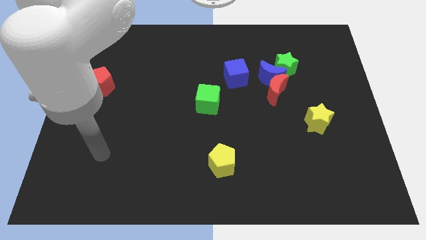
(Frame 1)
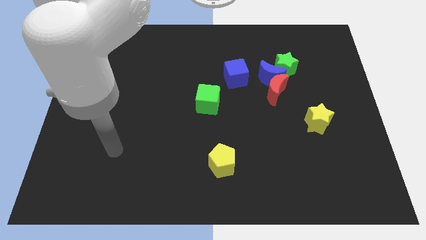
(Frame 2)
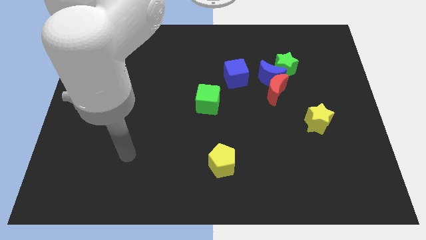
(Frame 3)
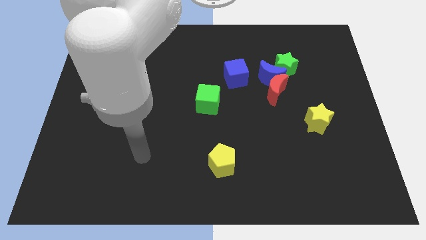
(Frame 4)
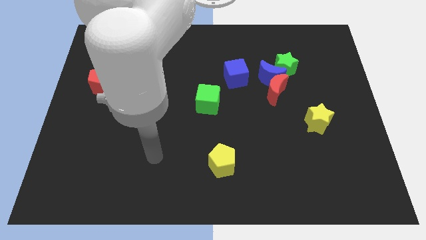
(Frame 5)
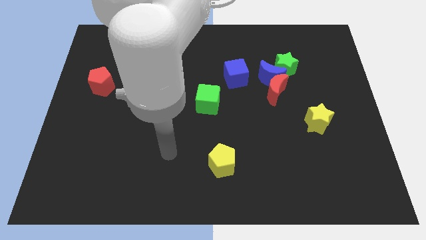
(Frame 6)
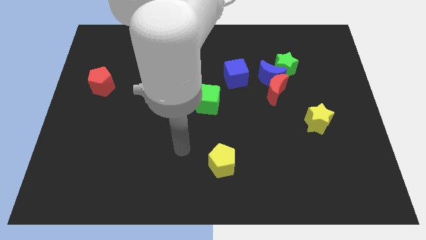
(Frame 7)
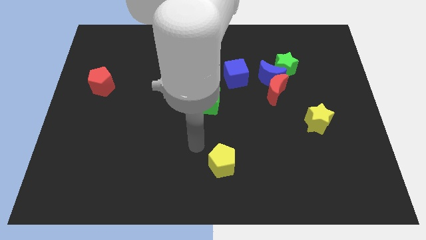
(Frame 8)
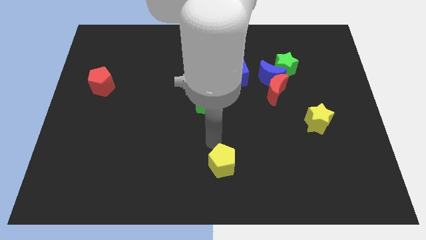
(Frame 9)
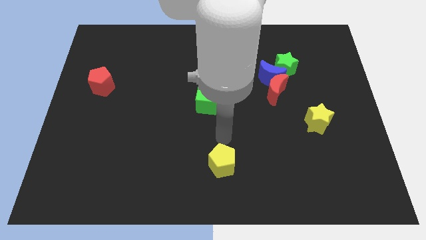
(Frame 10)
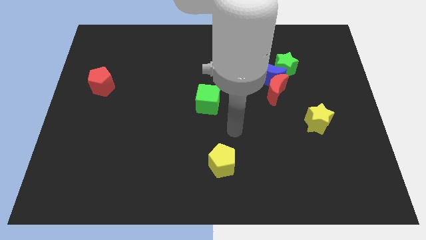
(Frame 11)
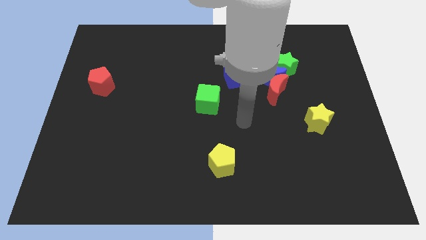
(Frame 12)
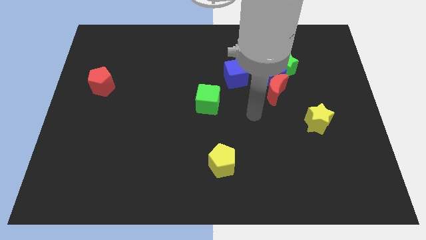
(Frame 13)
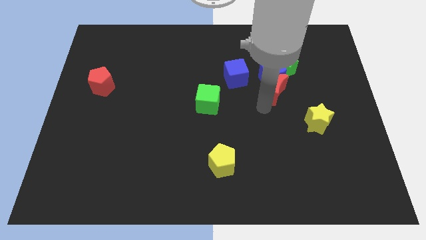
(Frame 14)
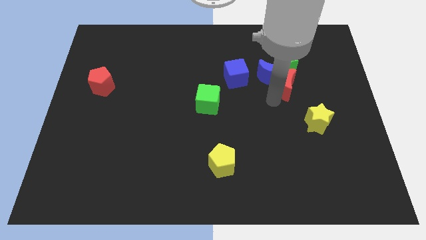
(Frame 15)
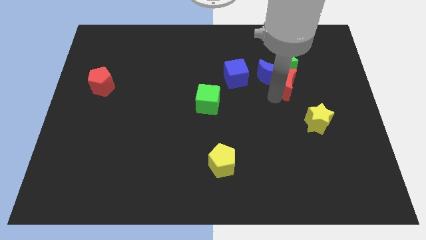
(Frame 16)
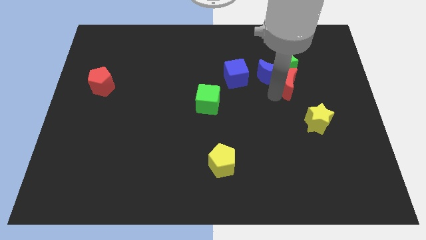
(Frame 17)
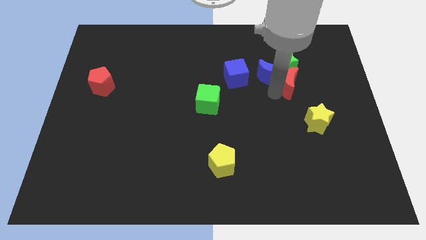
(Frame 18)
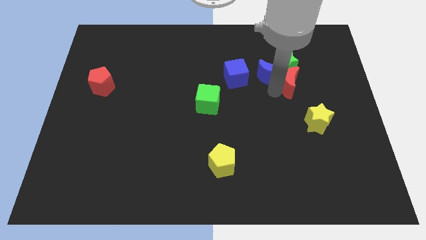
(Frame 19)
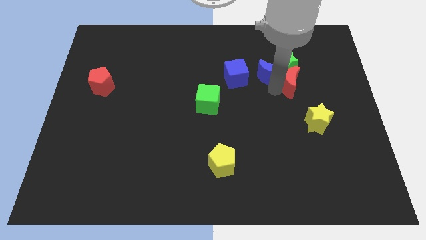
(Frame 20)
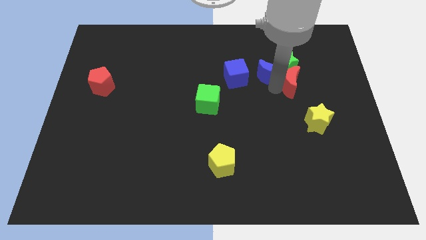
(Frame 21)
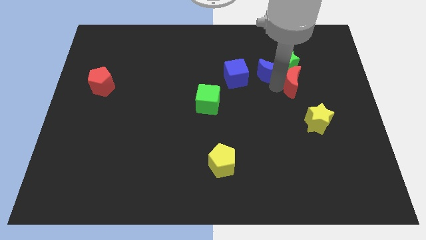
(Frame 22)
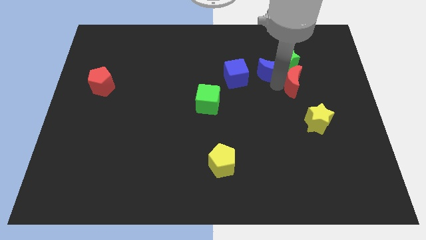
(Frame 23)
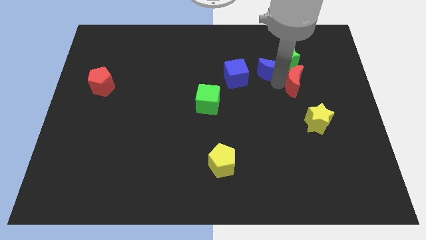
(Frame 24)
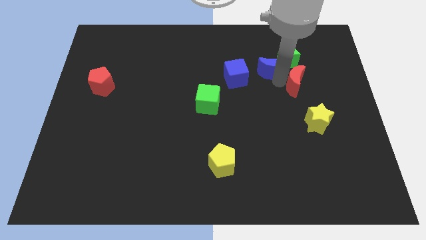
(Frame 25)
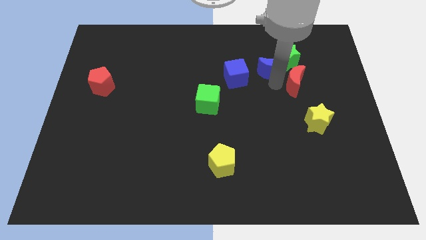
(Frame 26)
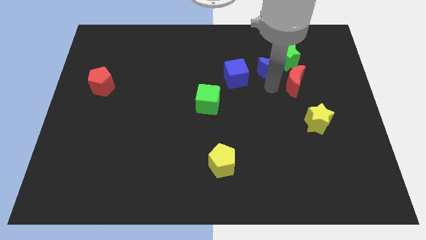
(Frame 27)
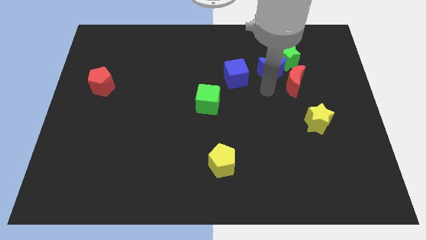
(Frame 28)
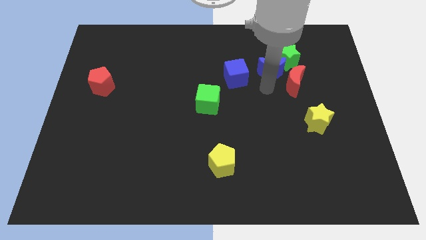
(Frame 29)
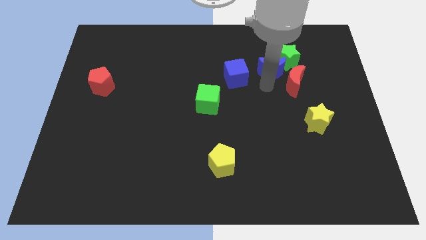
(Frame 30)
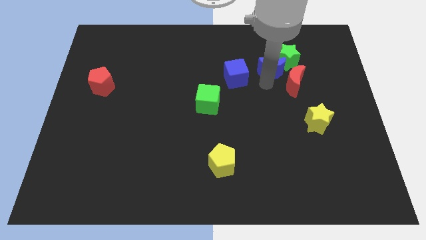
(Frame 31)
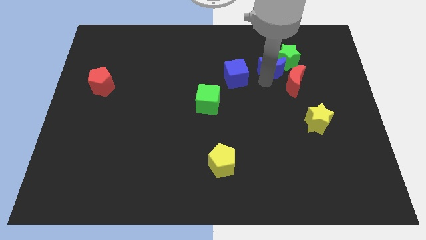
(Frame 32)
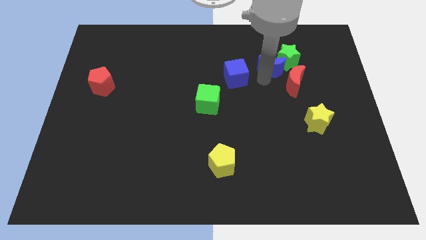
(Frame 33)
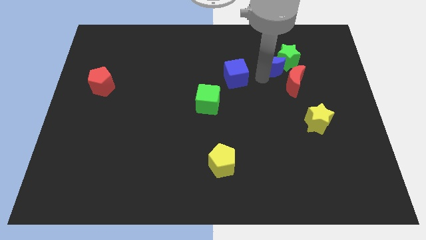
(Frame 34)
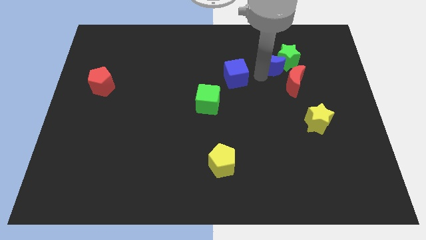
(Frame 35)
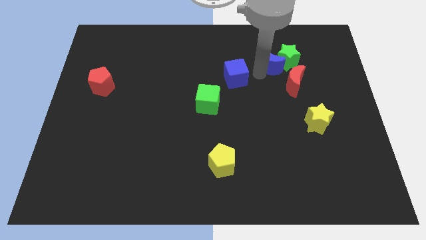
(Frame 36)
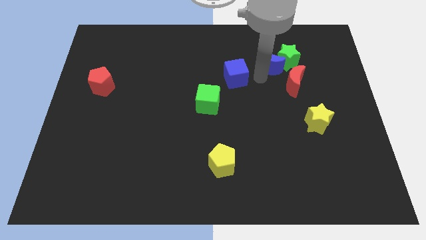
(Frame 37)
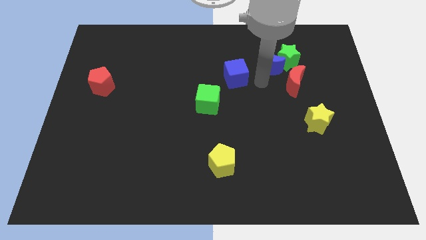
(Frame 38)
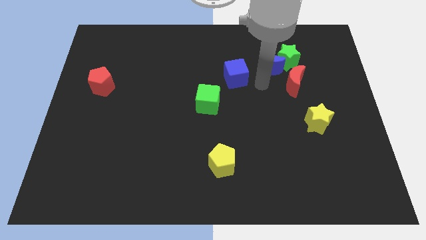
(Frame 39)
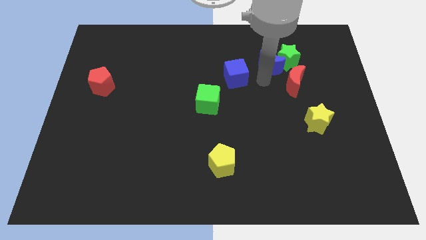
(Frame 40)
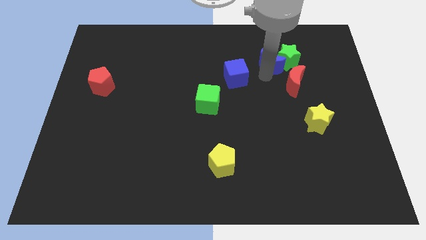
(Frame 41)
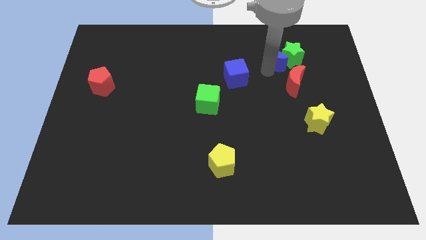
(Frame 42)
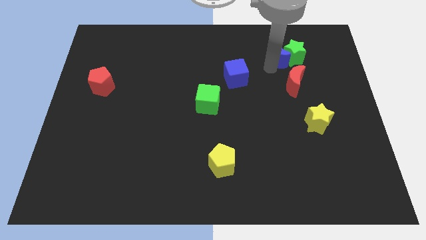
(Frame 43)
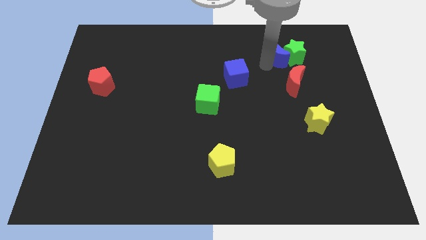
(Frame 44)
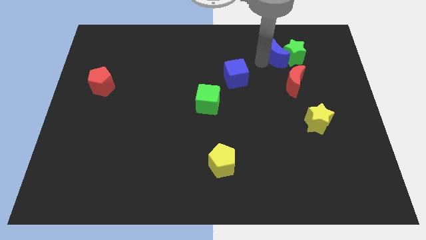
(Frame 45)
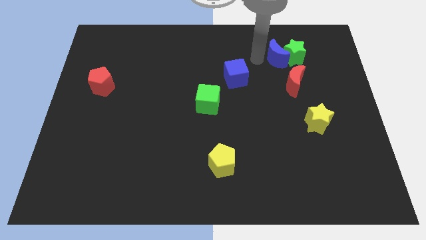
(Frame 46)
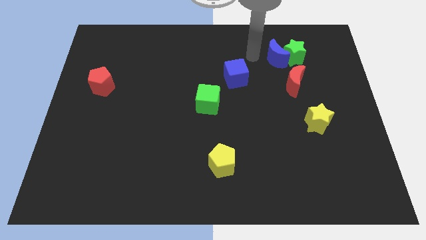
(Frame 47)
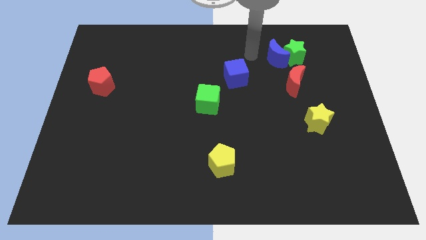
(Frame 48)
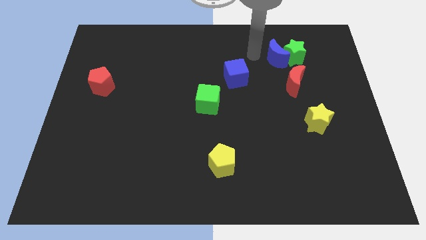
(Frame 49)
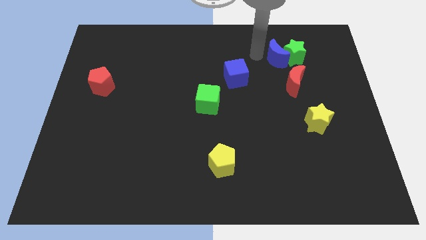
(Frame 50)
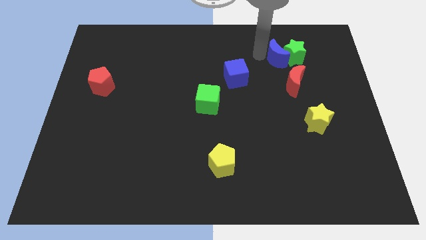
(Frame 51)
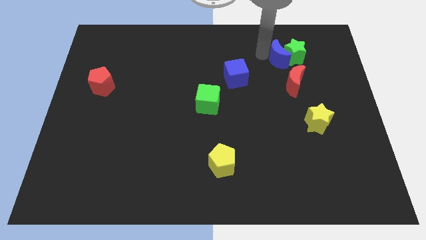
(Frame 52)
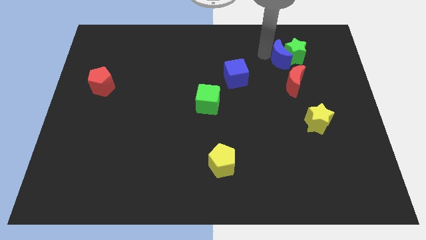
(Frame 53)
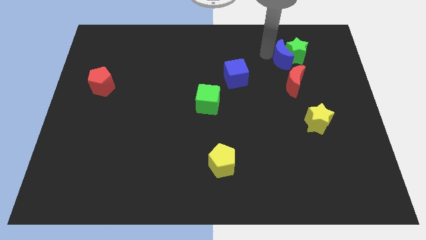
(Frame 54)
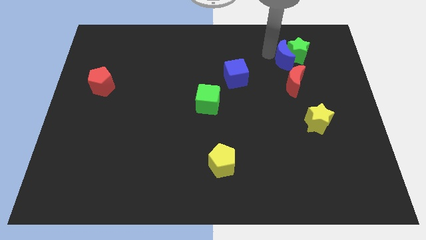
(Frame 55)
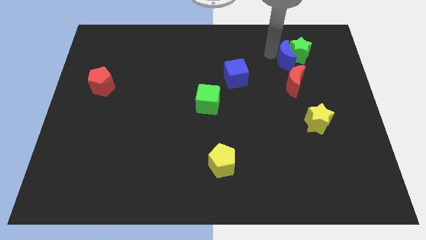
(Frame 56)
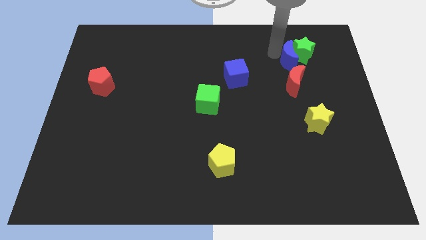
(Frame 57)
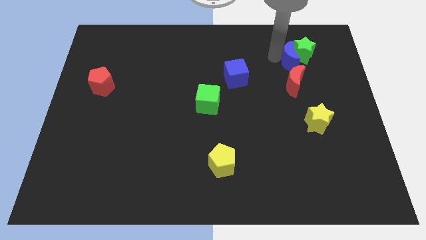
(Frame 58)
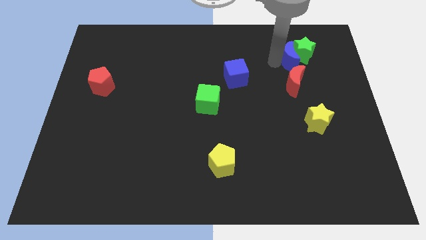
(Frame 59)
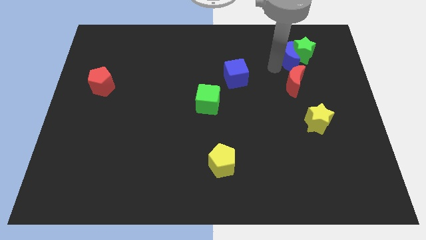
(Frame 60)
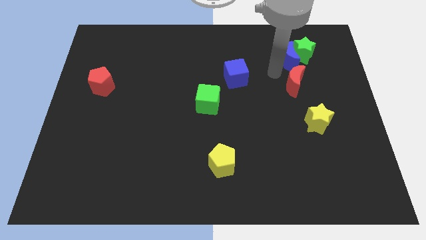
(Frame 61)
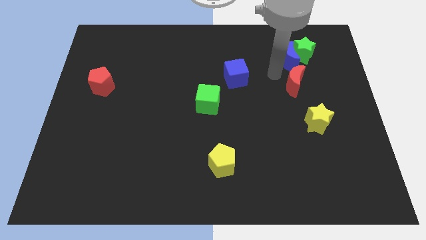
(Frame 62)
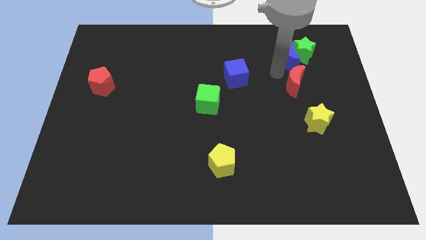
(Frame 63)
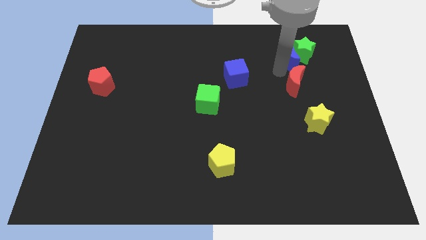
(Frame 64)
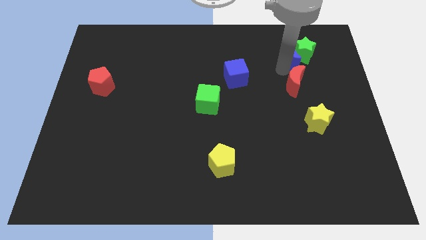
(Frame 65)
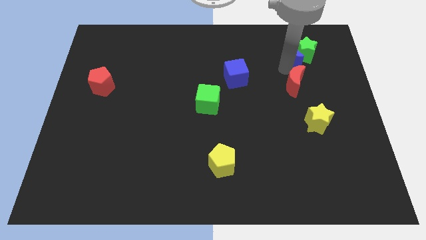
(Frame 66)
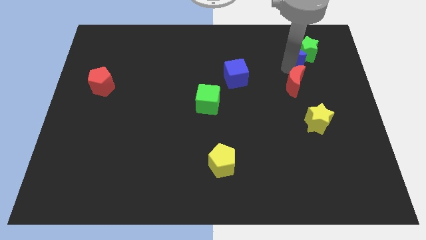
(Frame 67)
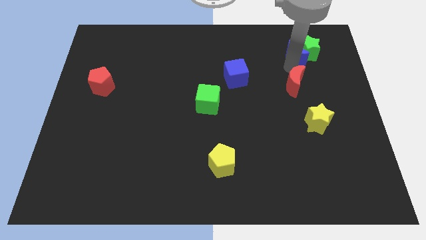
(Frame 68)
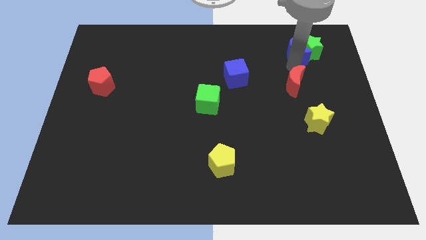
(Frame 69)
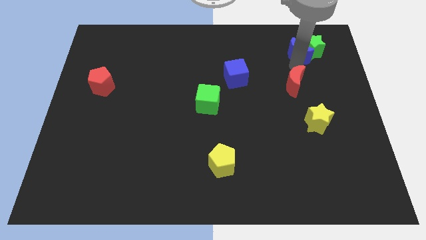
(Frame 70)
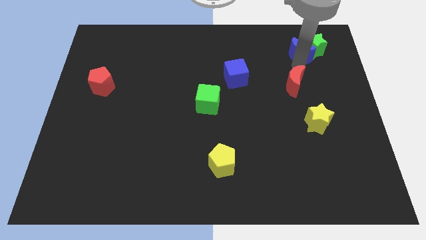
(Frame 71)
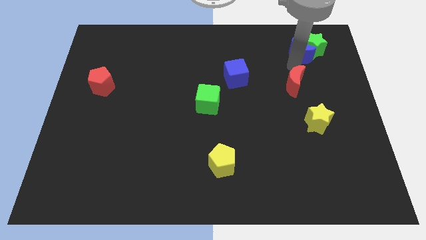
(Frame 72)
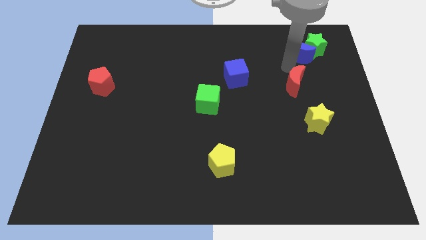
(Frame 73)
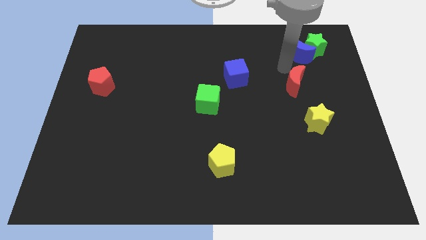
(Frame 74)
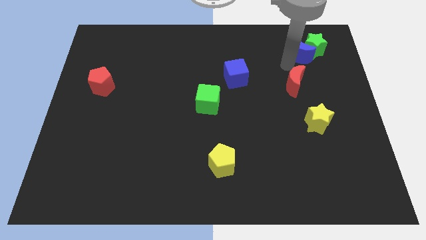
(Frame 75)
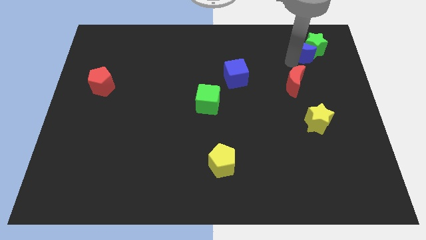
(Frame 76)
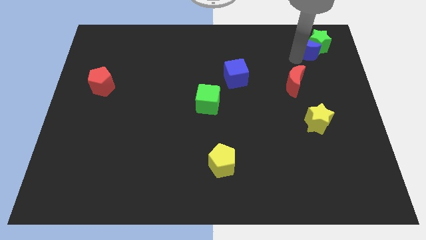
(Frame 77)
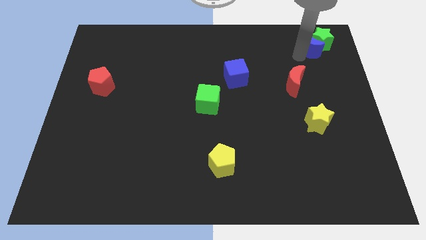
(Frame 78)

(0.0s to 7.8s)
separate the blue moon from the clump

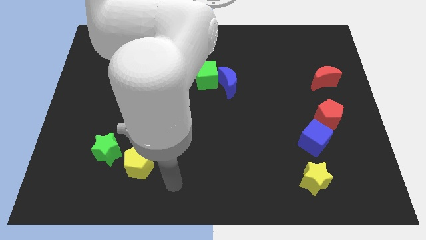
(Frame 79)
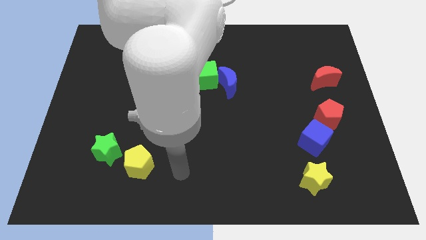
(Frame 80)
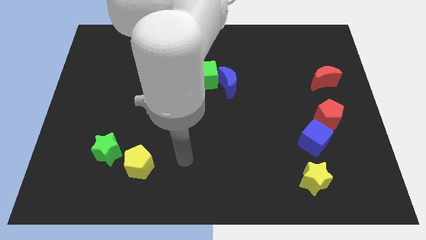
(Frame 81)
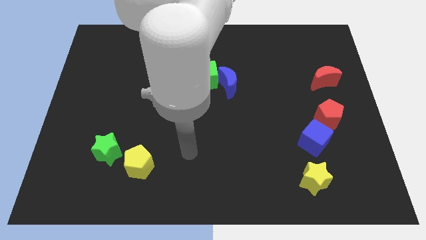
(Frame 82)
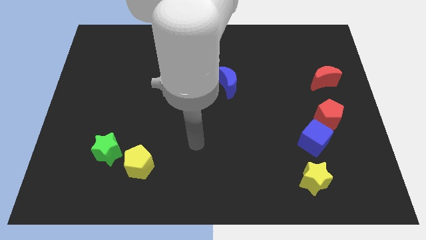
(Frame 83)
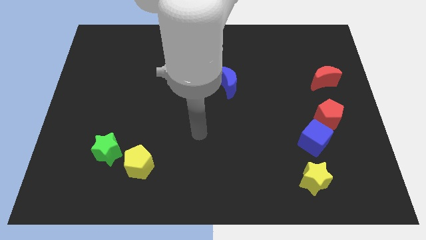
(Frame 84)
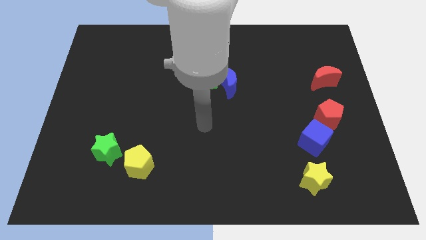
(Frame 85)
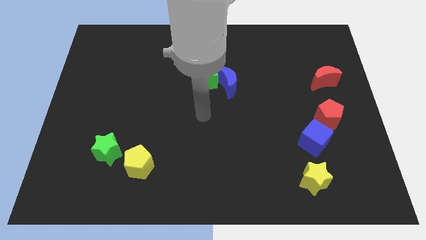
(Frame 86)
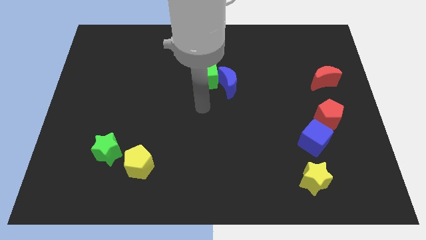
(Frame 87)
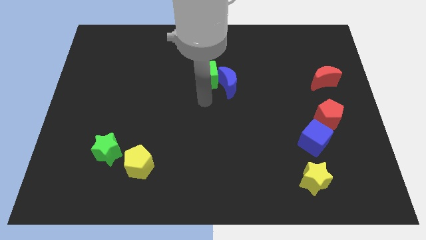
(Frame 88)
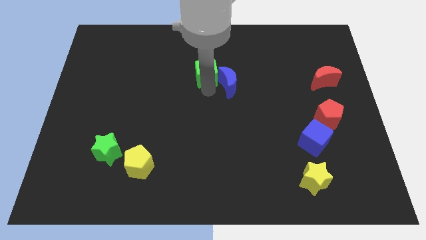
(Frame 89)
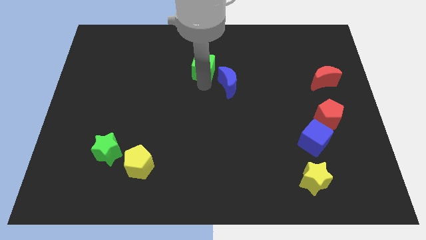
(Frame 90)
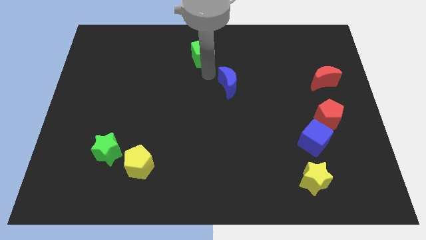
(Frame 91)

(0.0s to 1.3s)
move the blue moon away from the green cube

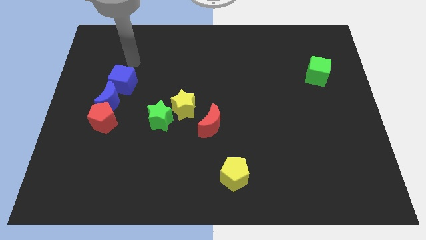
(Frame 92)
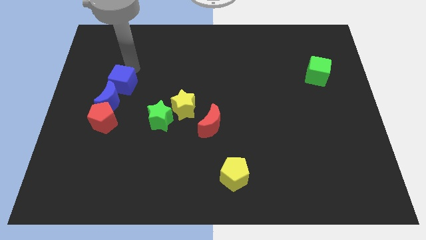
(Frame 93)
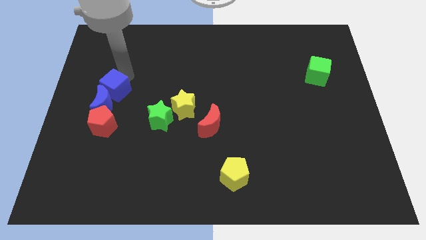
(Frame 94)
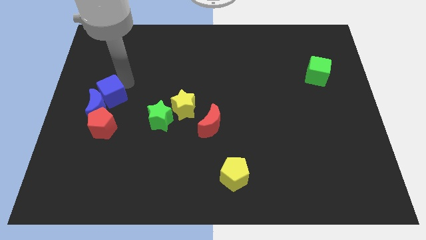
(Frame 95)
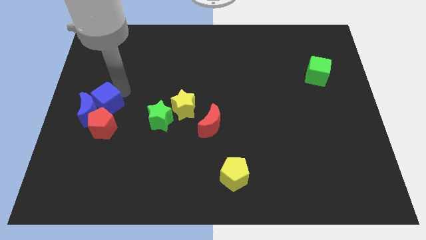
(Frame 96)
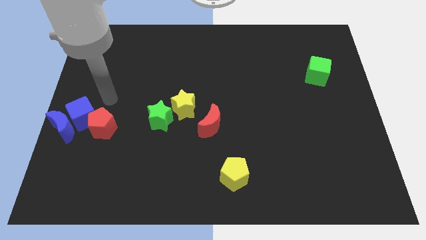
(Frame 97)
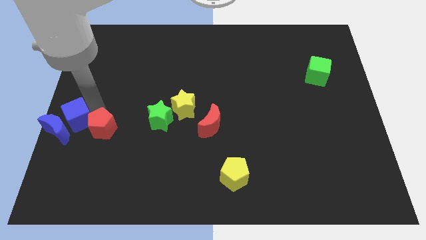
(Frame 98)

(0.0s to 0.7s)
separate the red pentagon from the blue moon
